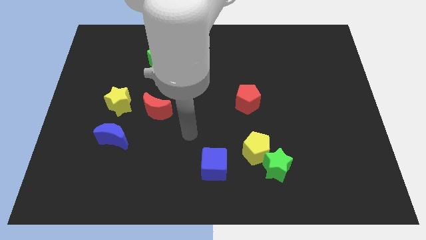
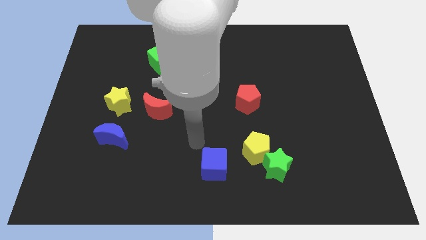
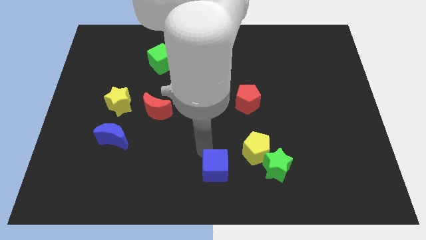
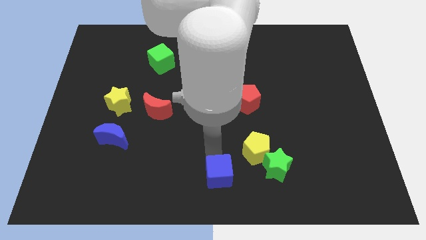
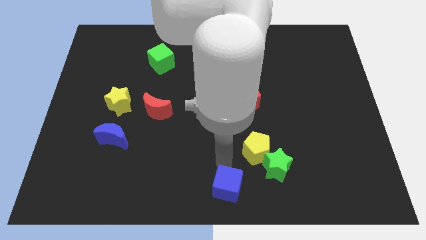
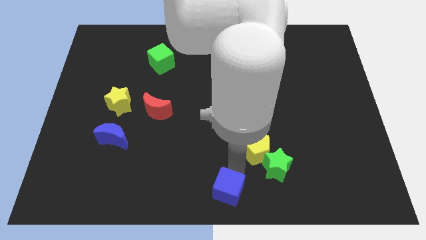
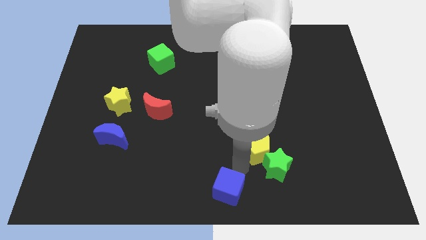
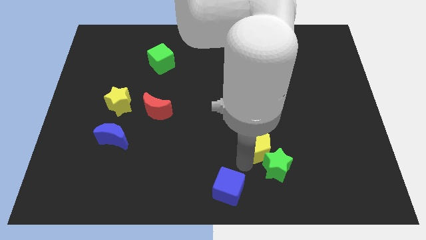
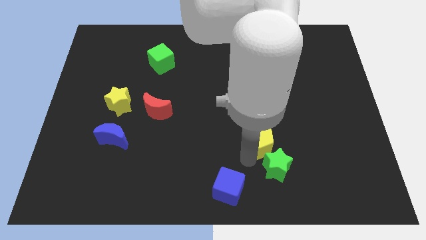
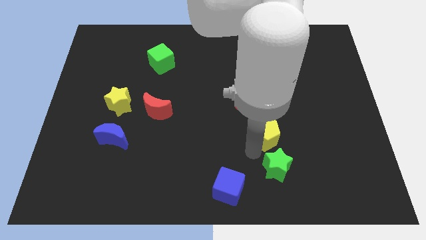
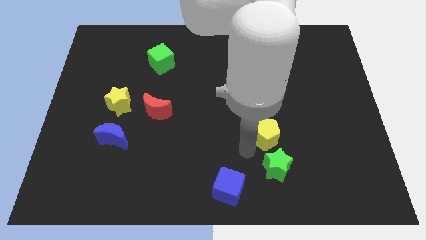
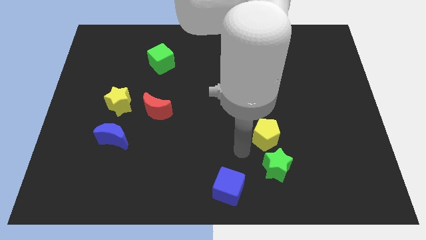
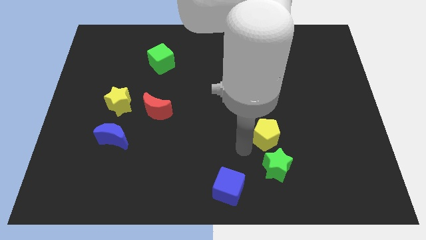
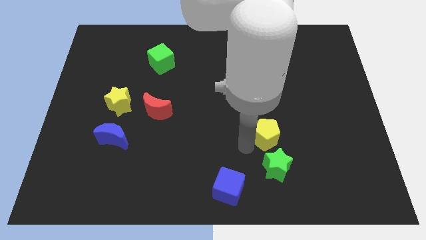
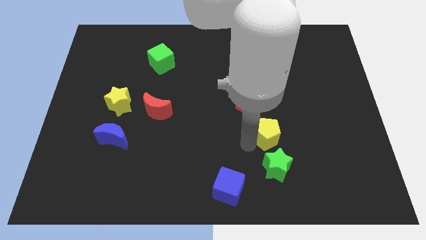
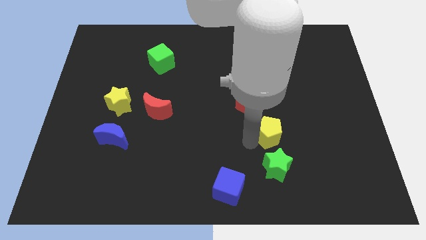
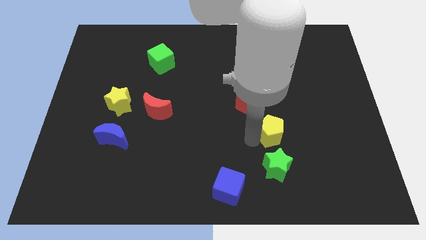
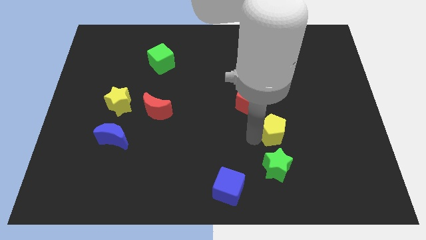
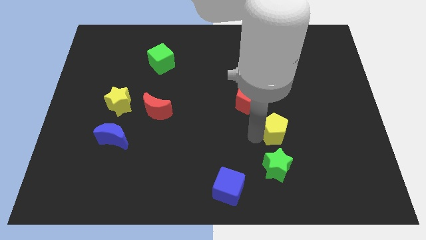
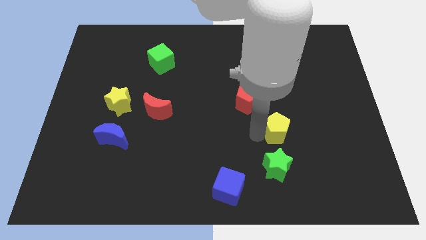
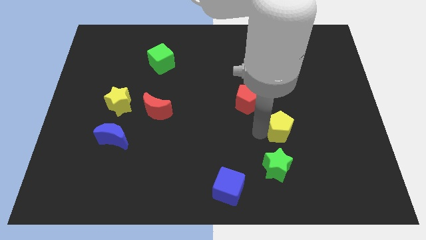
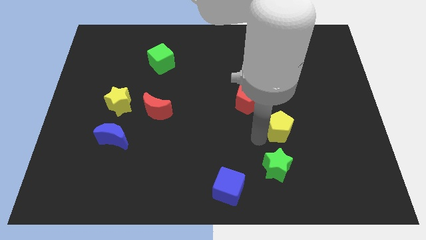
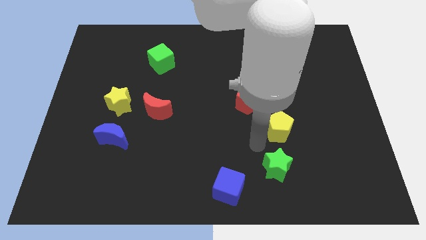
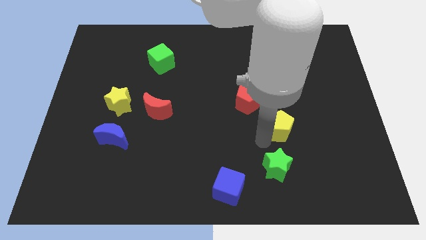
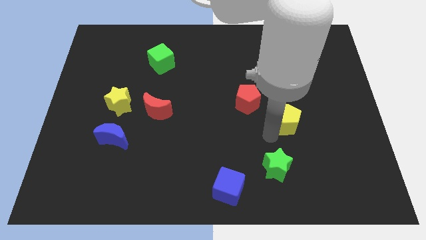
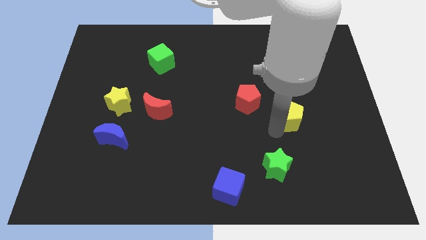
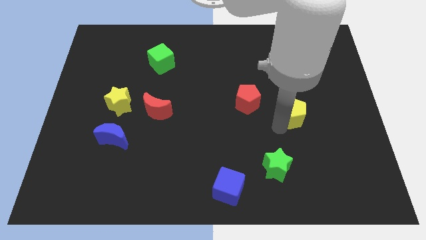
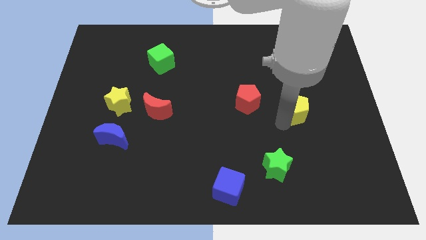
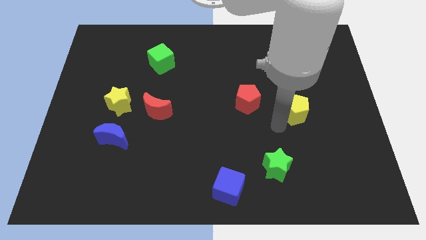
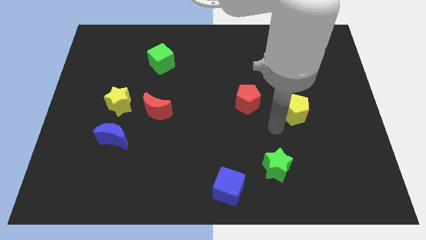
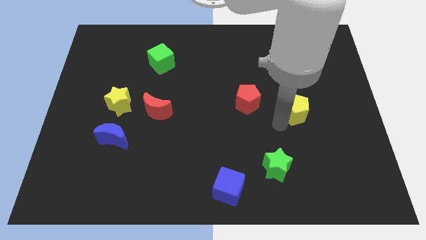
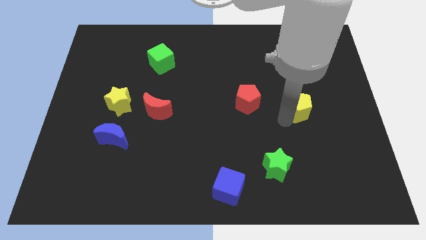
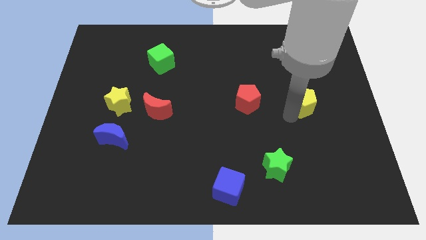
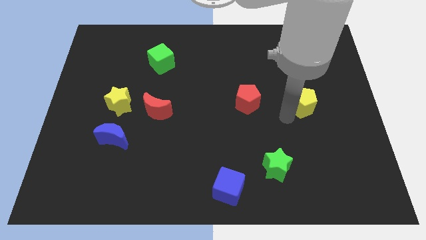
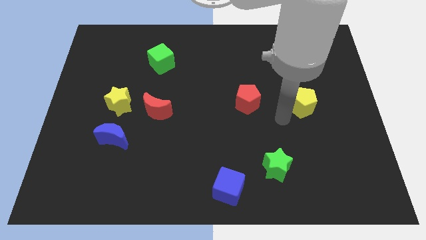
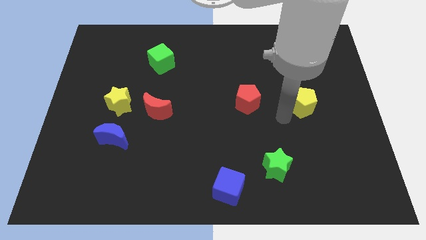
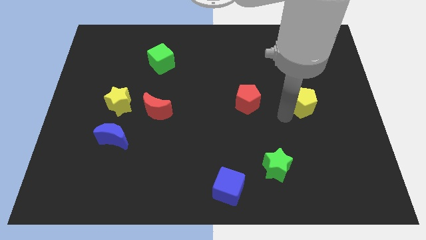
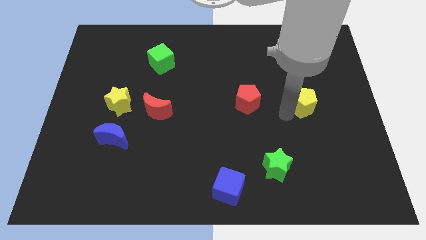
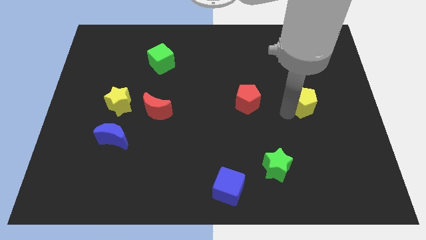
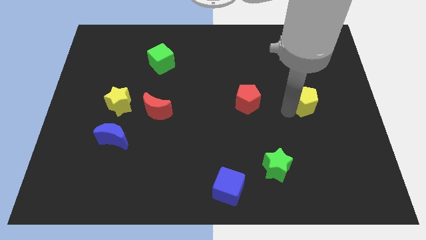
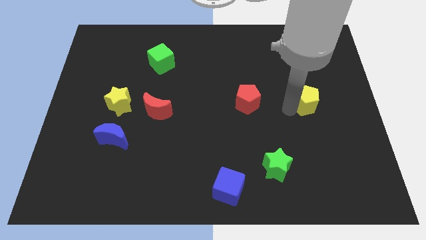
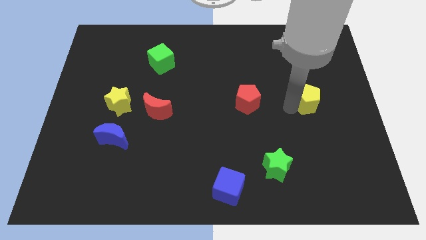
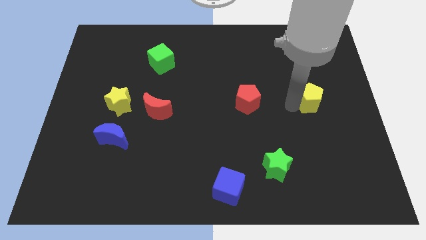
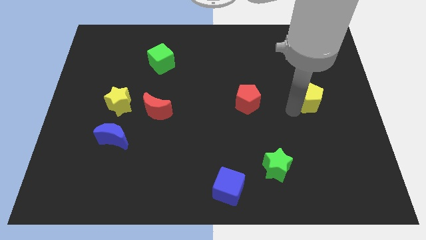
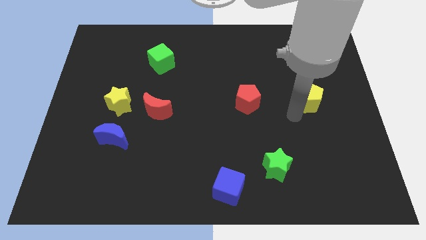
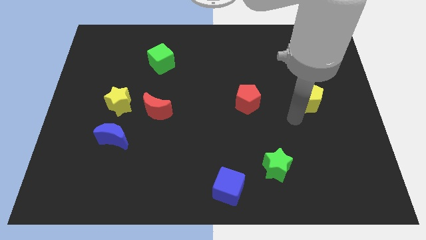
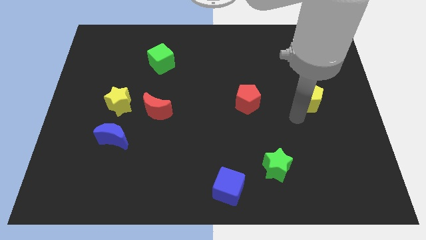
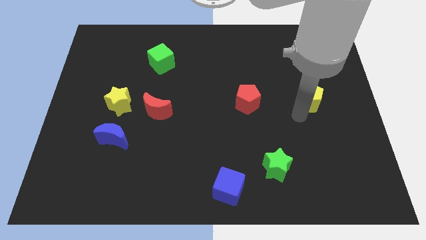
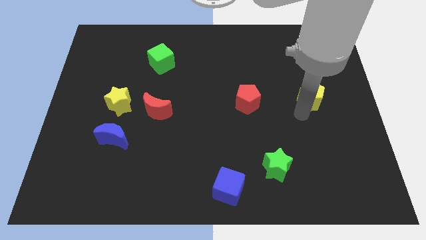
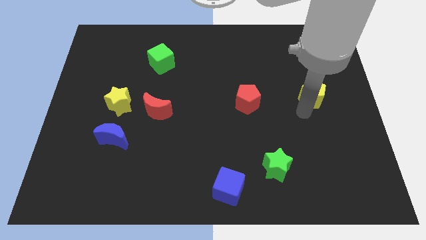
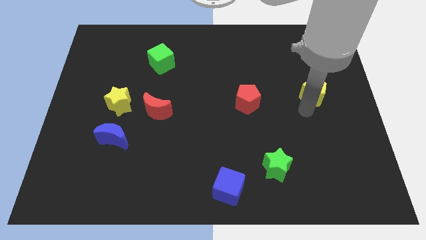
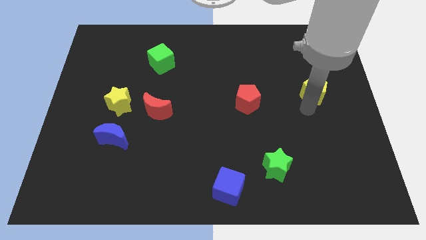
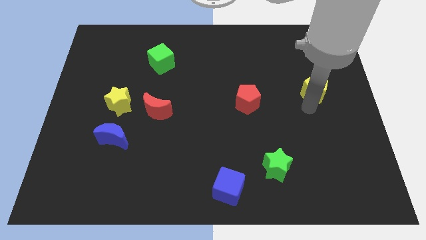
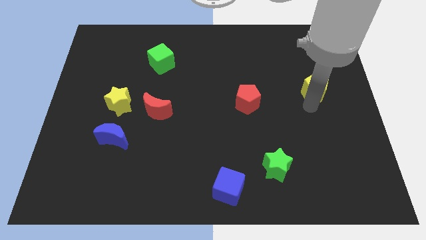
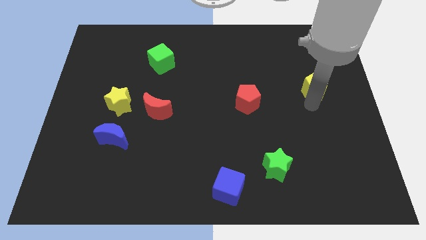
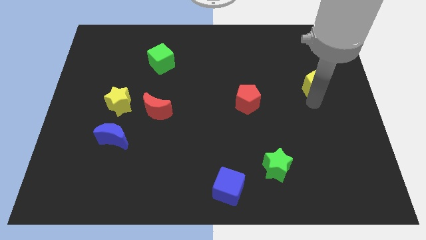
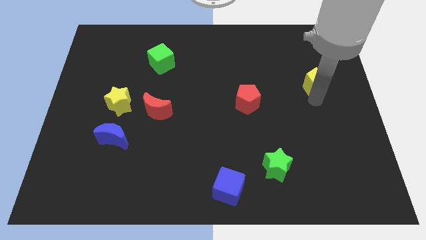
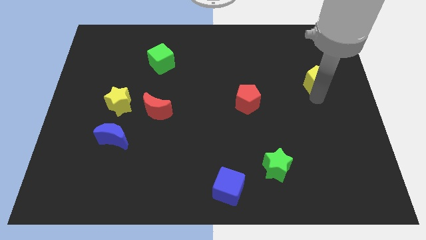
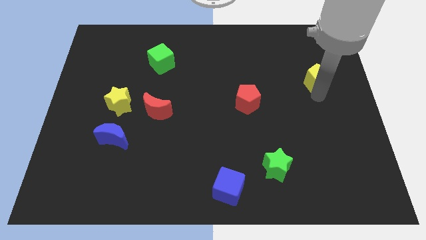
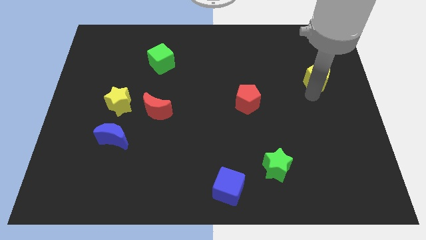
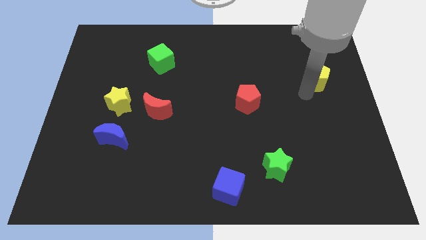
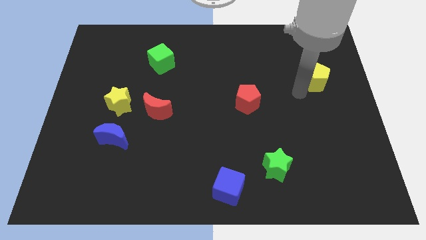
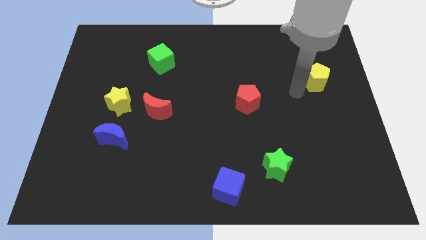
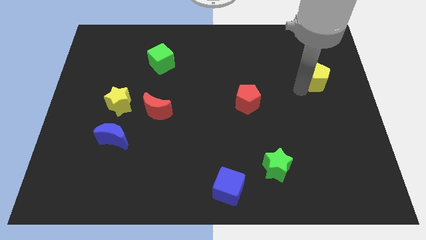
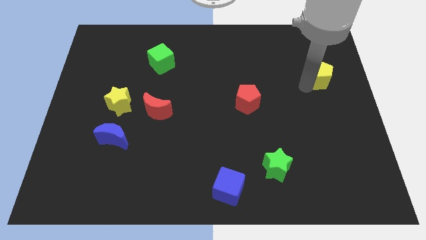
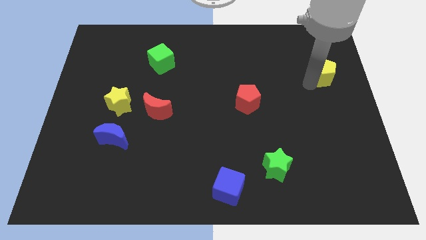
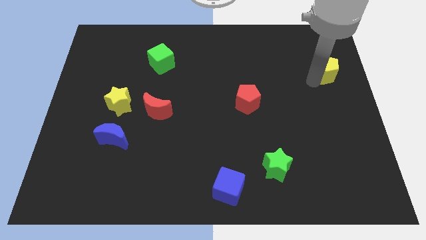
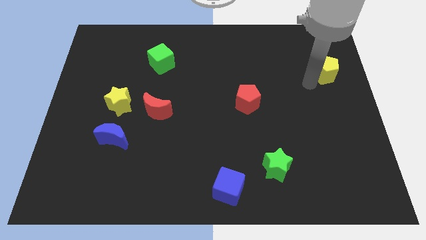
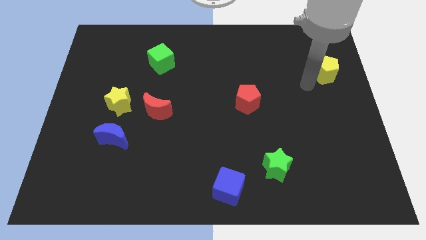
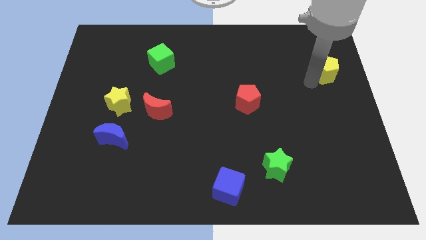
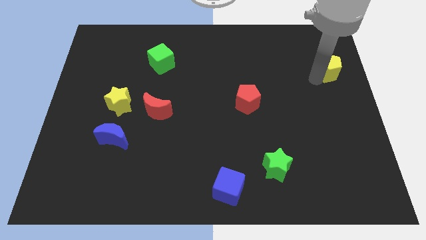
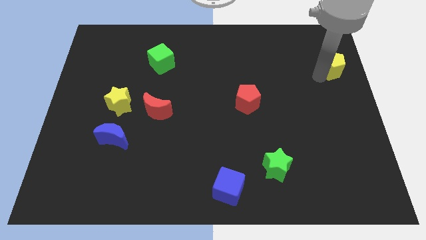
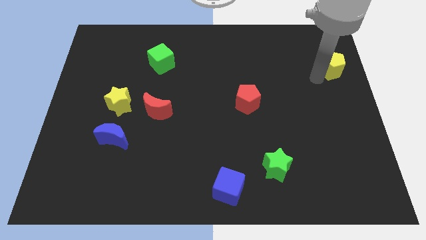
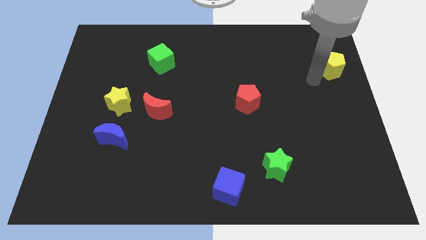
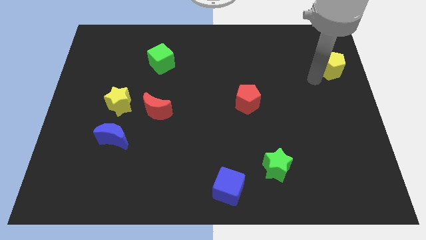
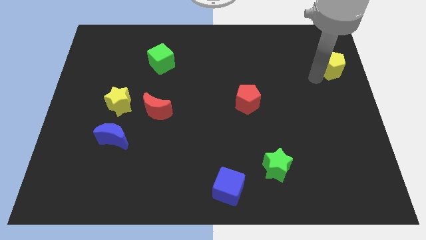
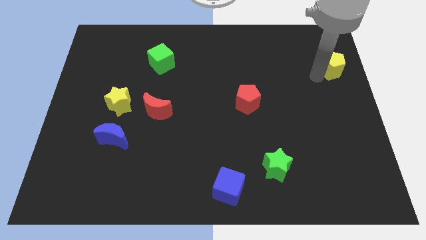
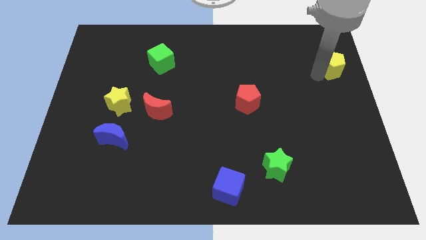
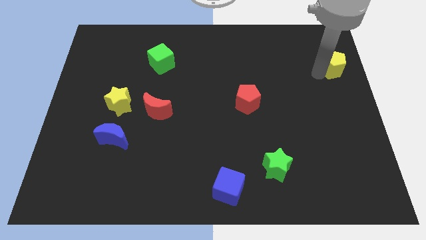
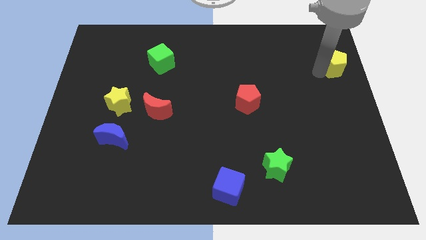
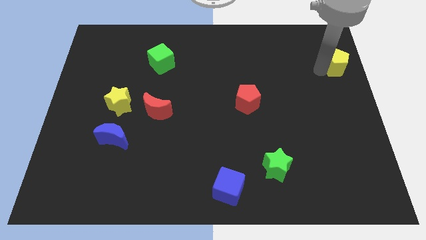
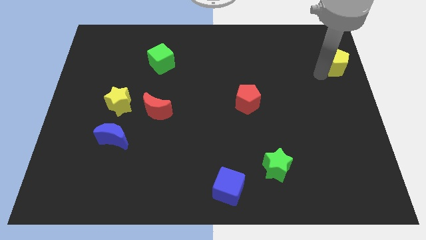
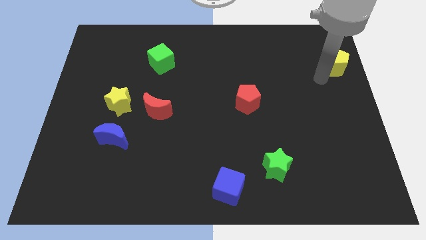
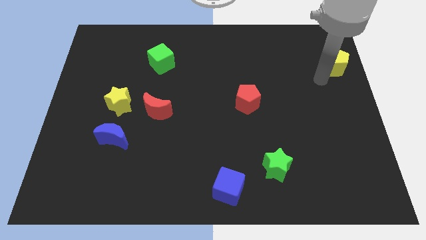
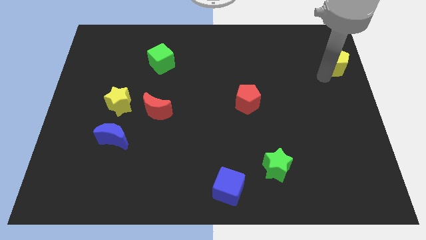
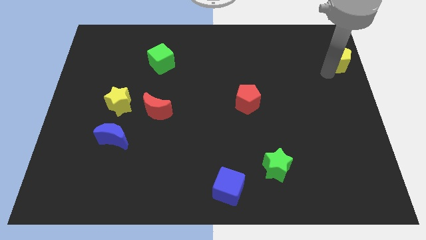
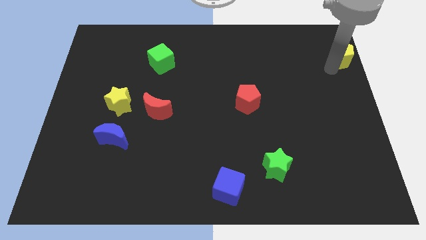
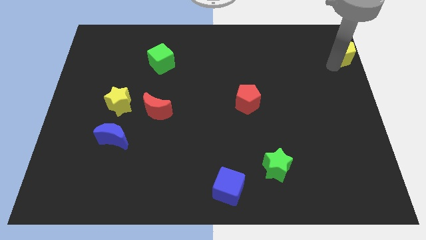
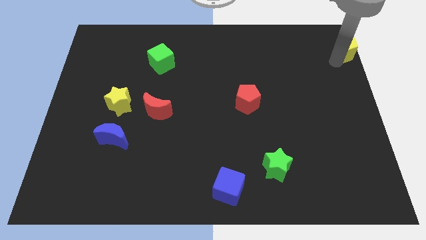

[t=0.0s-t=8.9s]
push the yellow pentagon to the top right
